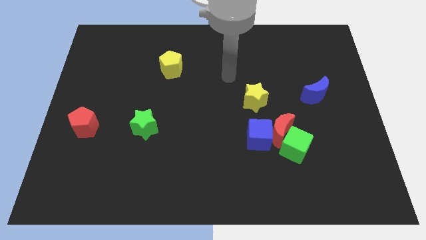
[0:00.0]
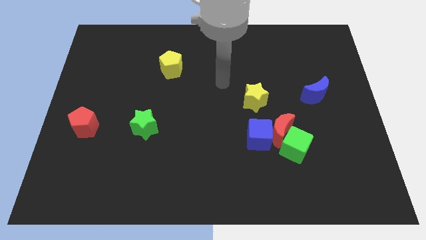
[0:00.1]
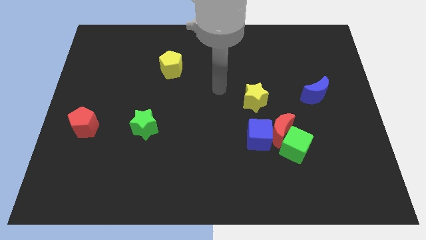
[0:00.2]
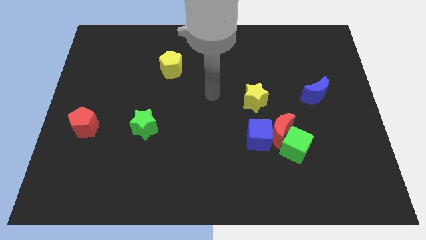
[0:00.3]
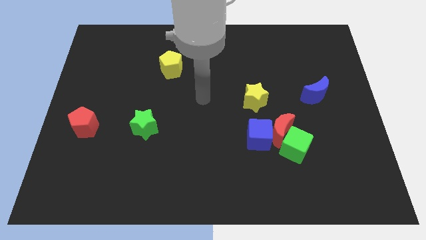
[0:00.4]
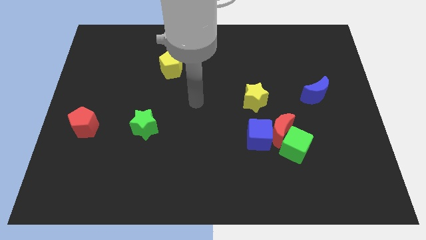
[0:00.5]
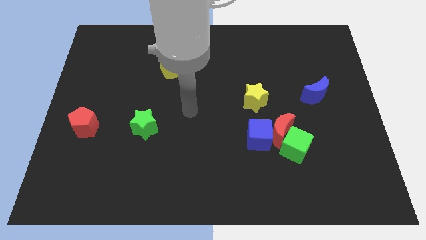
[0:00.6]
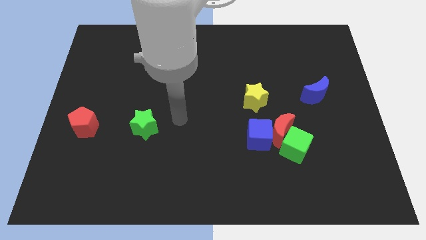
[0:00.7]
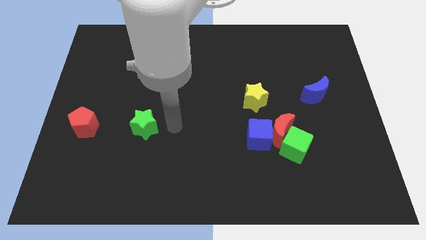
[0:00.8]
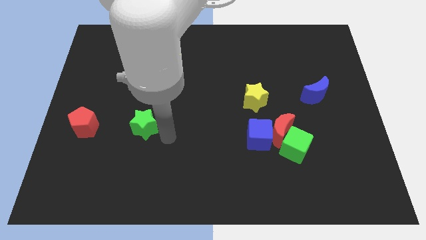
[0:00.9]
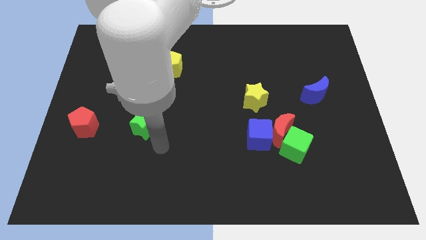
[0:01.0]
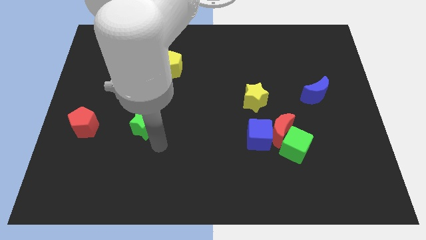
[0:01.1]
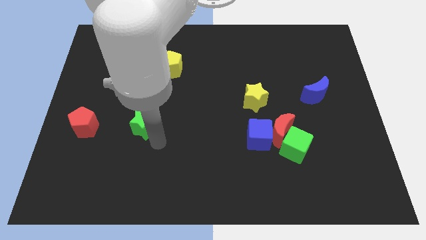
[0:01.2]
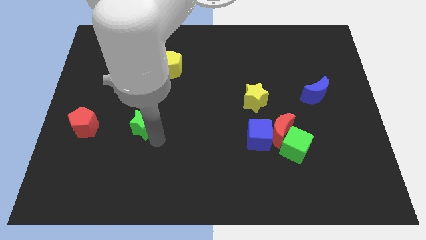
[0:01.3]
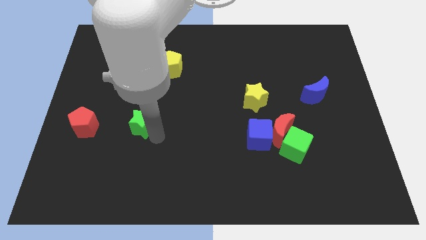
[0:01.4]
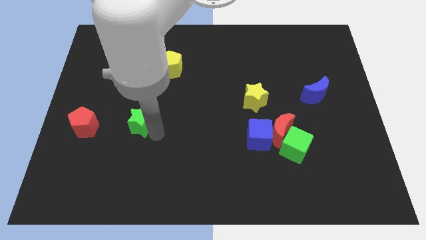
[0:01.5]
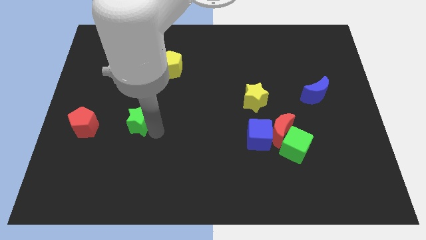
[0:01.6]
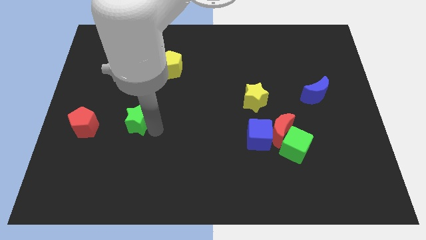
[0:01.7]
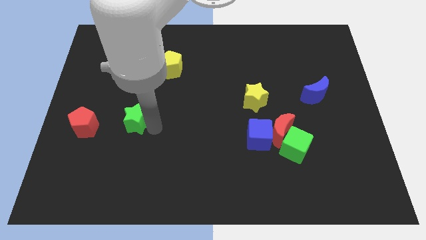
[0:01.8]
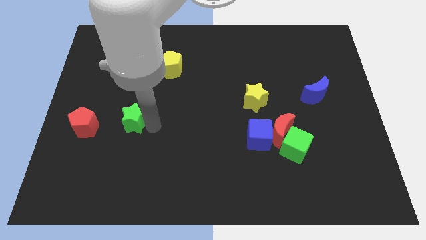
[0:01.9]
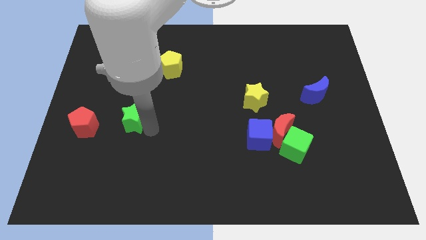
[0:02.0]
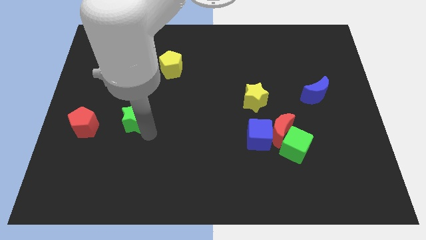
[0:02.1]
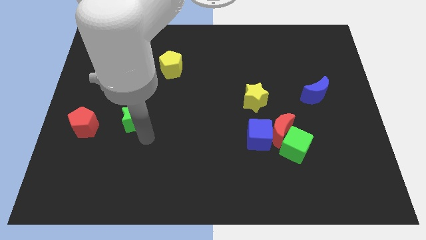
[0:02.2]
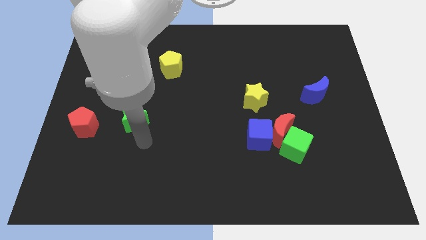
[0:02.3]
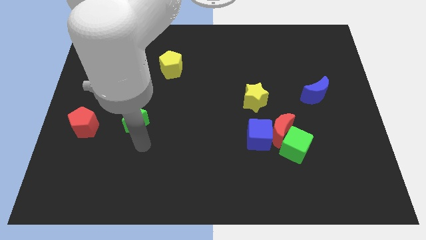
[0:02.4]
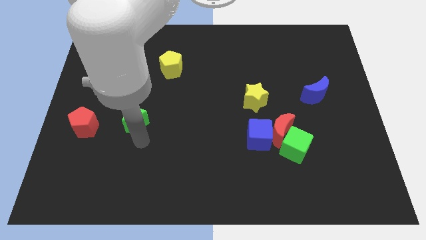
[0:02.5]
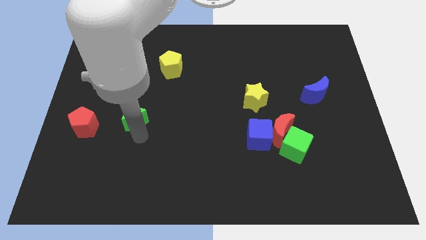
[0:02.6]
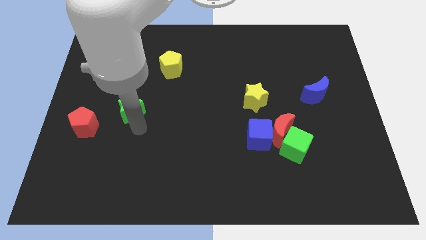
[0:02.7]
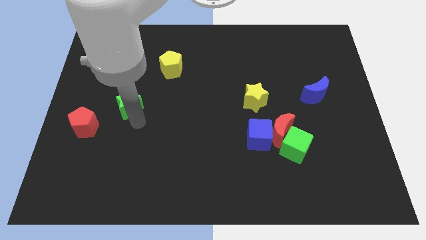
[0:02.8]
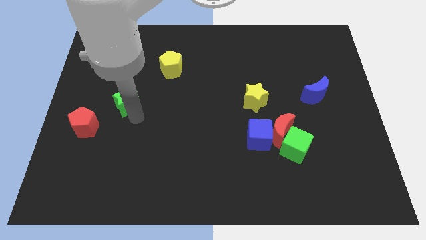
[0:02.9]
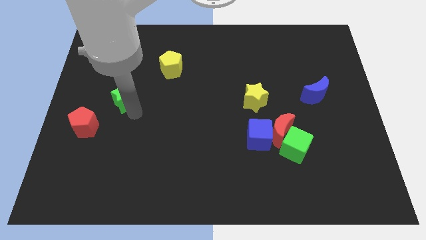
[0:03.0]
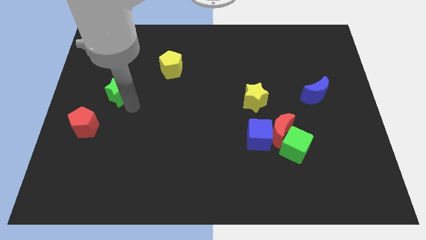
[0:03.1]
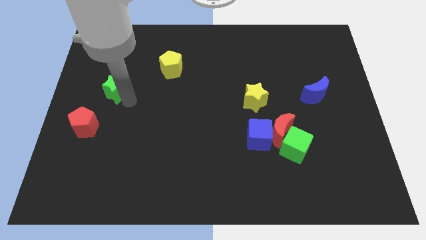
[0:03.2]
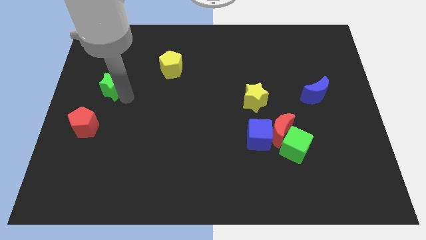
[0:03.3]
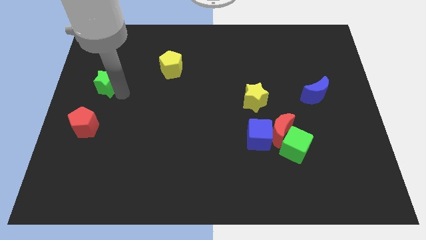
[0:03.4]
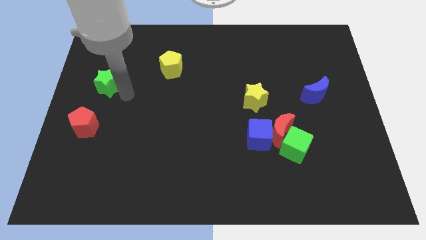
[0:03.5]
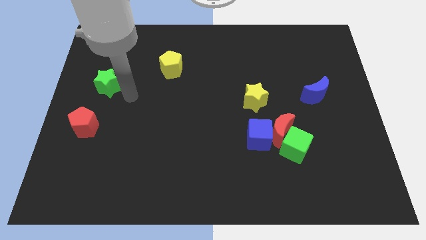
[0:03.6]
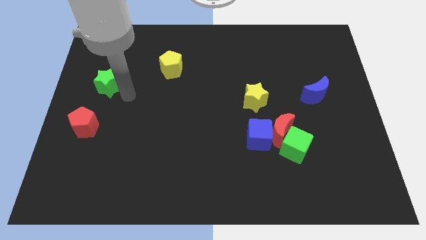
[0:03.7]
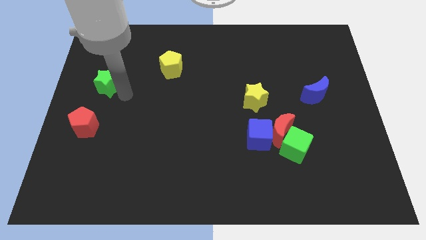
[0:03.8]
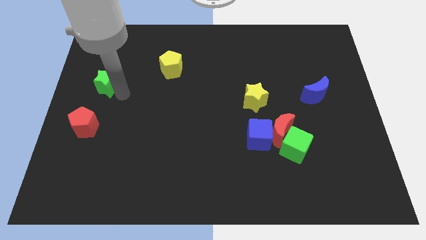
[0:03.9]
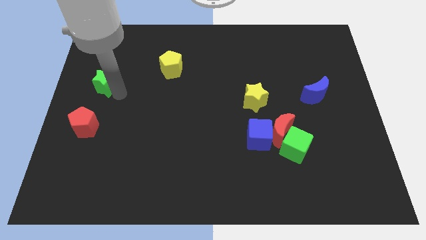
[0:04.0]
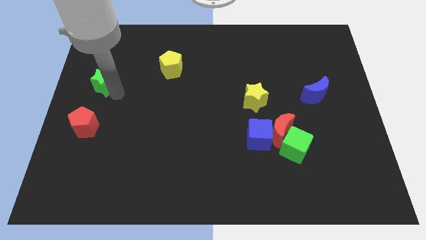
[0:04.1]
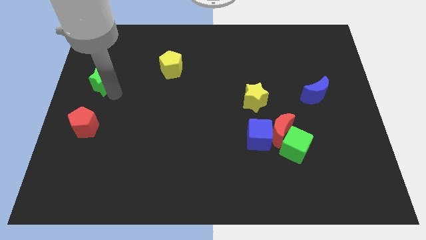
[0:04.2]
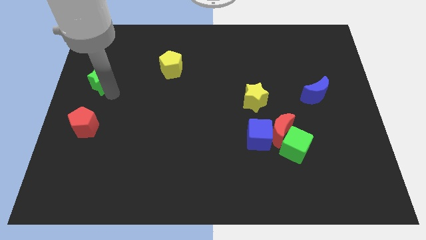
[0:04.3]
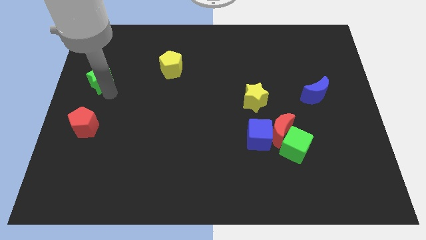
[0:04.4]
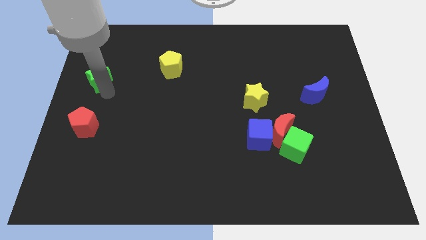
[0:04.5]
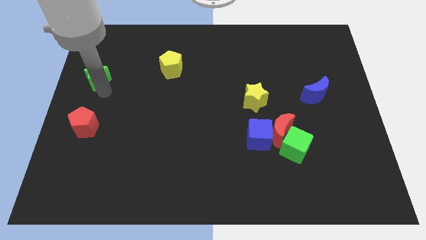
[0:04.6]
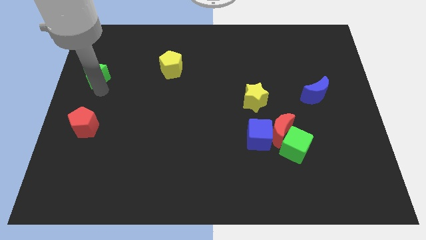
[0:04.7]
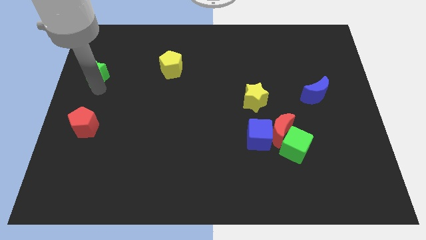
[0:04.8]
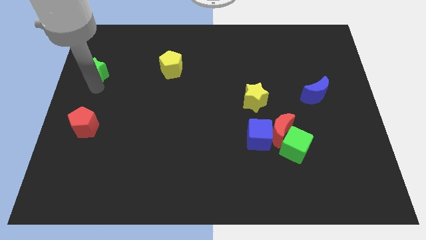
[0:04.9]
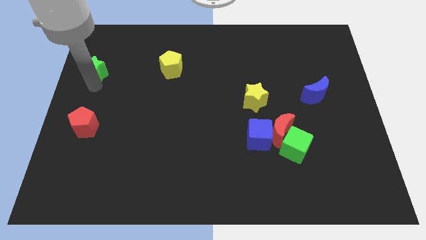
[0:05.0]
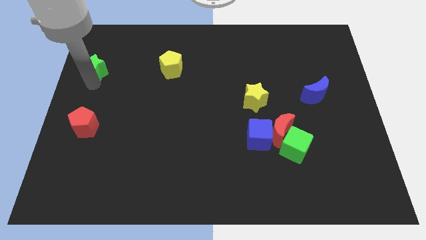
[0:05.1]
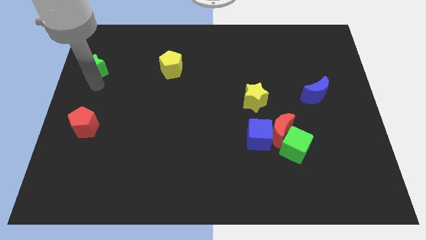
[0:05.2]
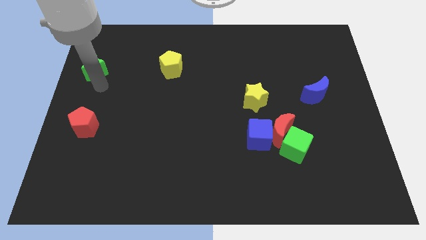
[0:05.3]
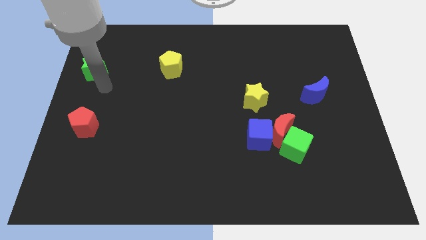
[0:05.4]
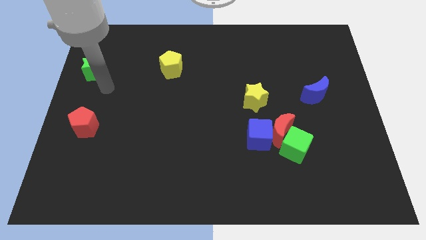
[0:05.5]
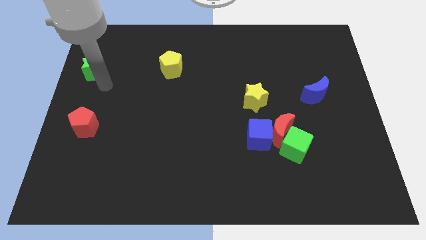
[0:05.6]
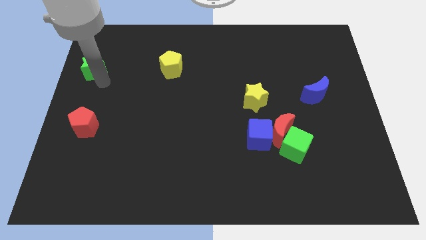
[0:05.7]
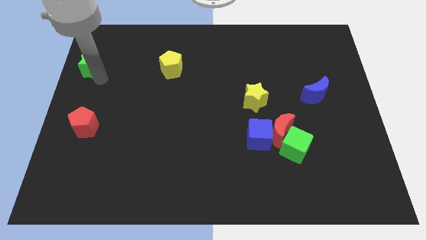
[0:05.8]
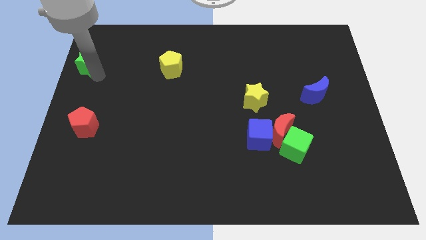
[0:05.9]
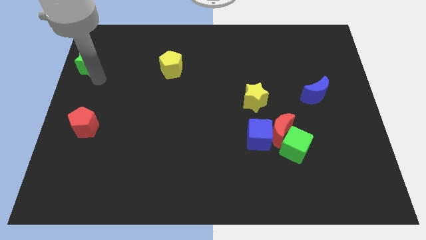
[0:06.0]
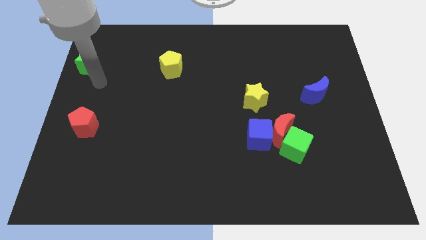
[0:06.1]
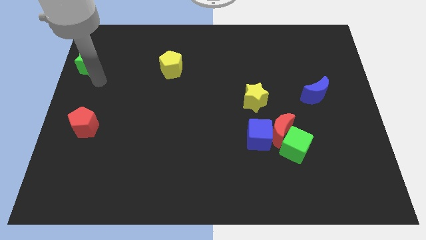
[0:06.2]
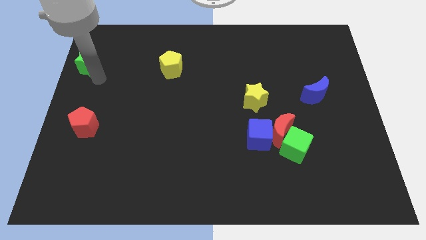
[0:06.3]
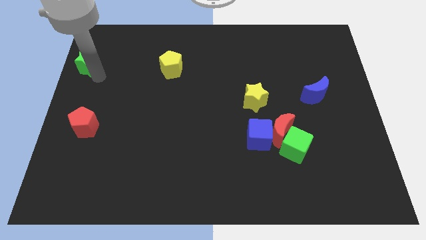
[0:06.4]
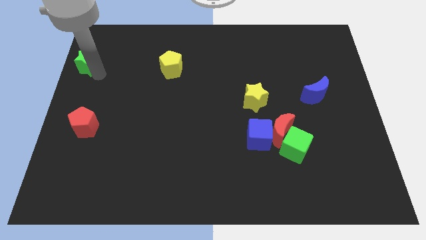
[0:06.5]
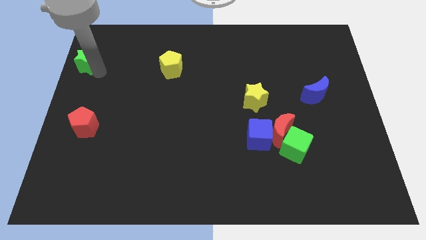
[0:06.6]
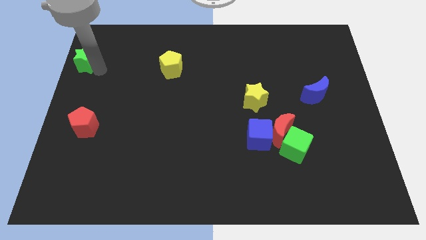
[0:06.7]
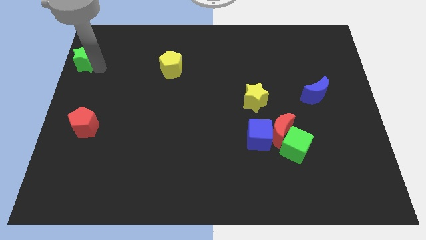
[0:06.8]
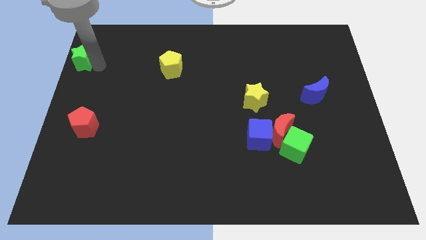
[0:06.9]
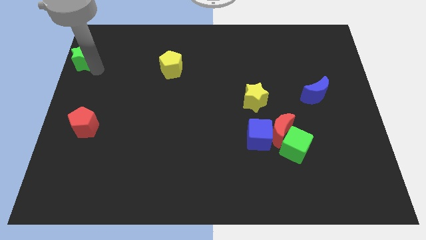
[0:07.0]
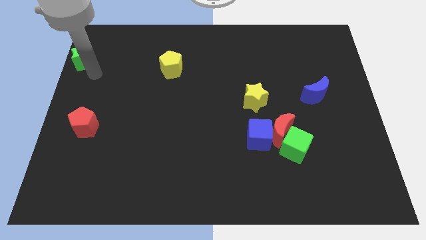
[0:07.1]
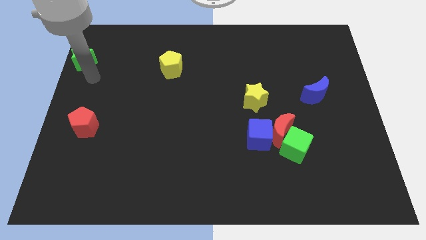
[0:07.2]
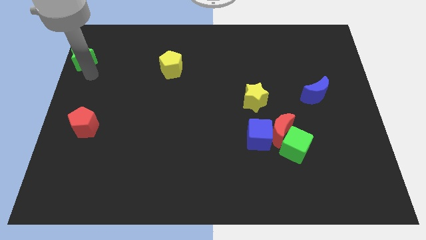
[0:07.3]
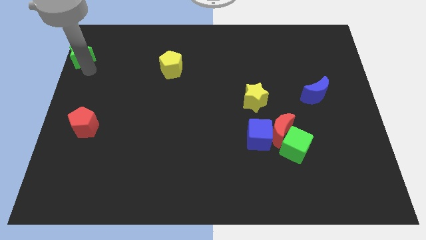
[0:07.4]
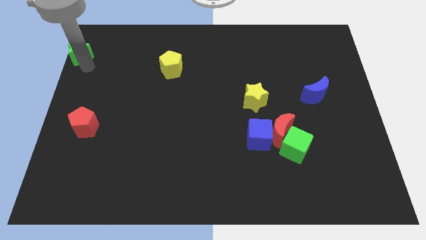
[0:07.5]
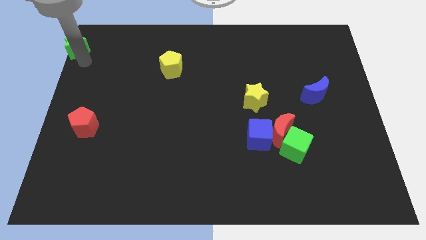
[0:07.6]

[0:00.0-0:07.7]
slide the green star to the top left of the board
